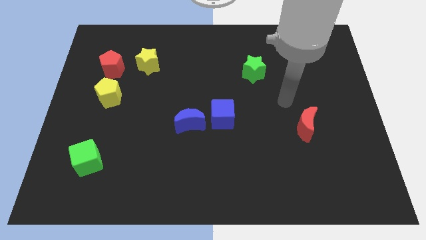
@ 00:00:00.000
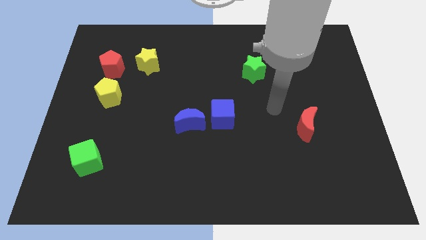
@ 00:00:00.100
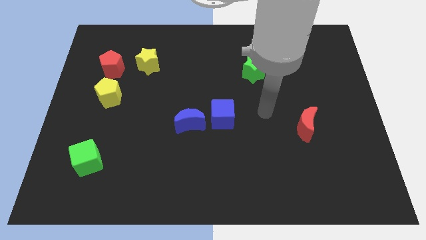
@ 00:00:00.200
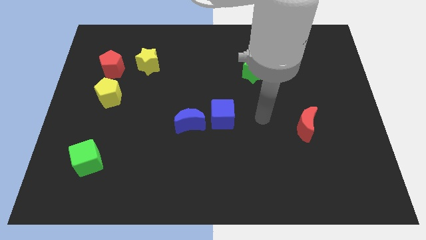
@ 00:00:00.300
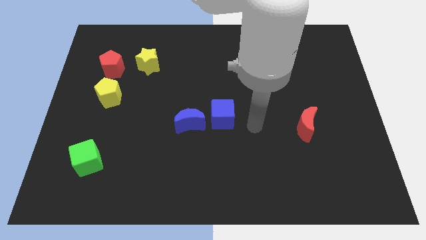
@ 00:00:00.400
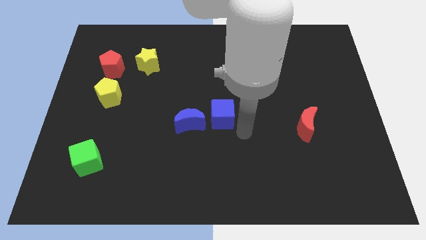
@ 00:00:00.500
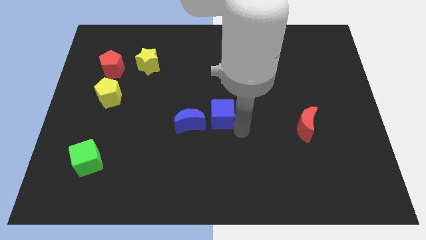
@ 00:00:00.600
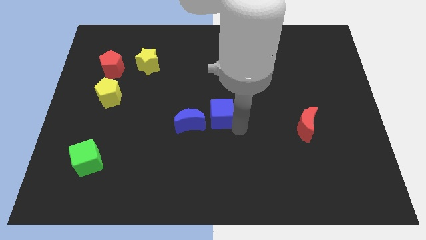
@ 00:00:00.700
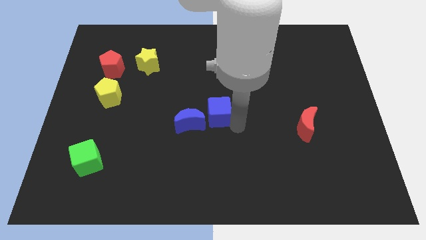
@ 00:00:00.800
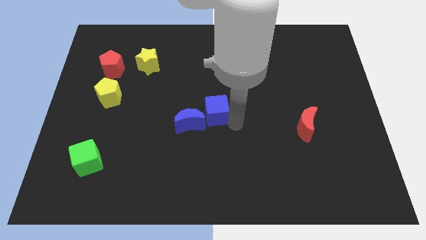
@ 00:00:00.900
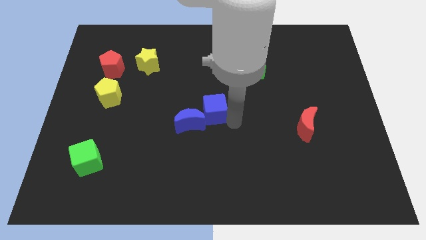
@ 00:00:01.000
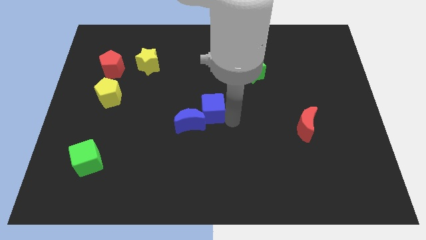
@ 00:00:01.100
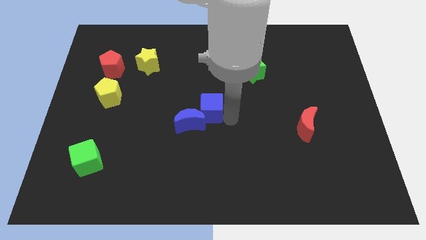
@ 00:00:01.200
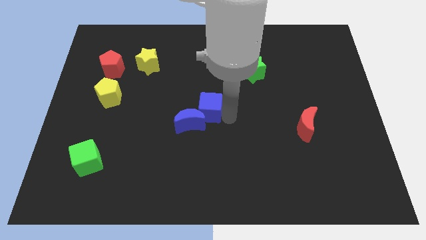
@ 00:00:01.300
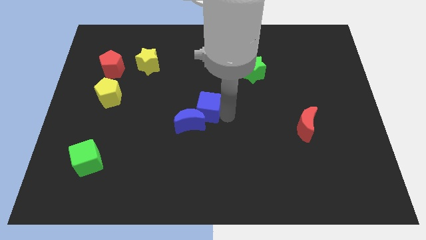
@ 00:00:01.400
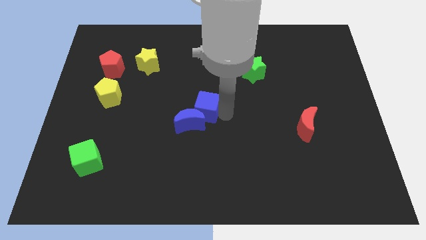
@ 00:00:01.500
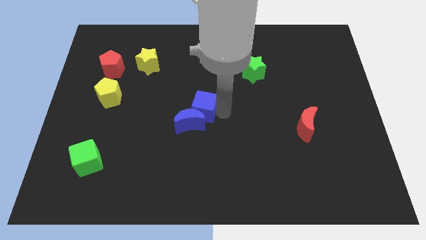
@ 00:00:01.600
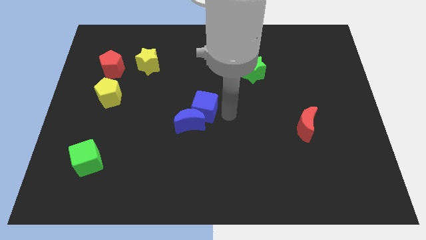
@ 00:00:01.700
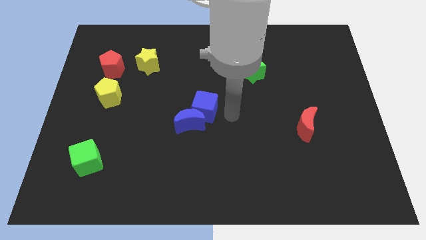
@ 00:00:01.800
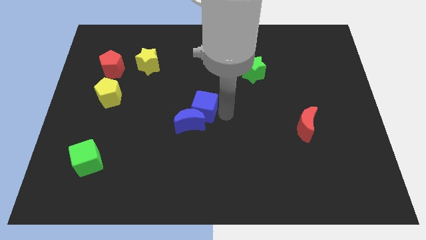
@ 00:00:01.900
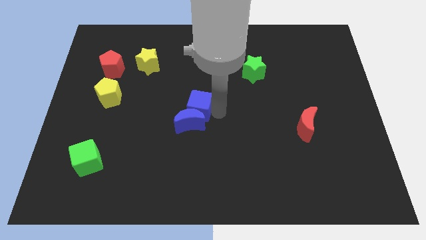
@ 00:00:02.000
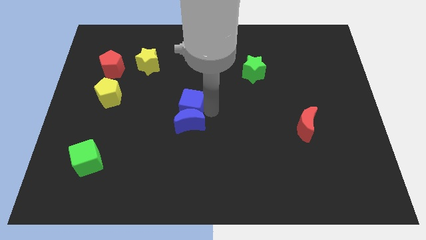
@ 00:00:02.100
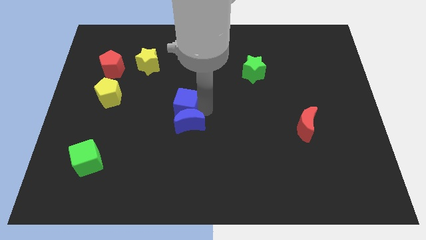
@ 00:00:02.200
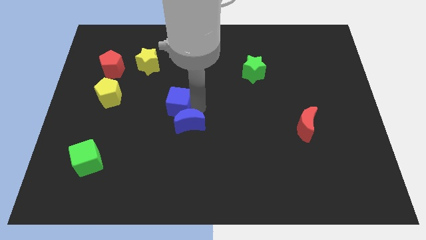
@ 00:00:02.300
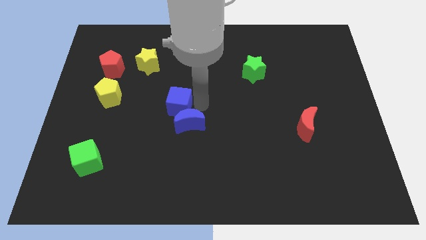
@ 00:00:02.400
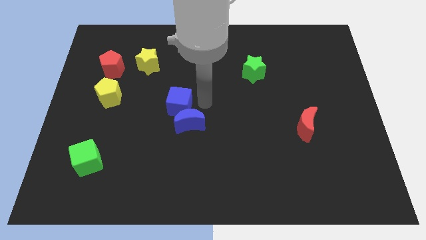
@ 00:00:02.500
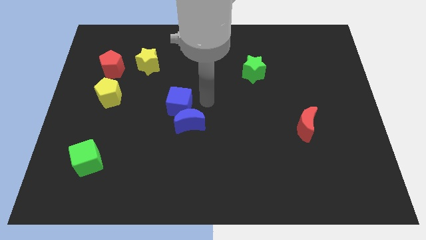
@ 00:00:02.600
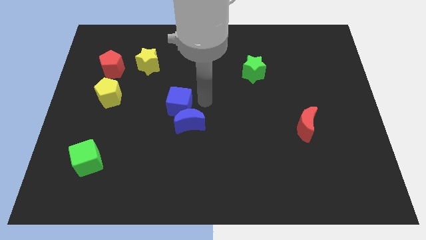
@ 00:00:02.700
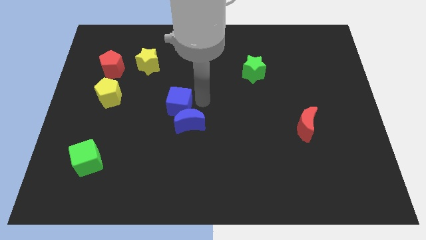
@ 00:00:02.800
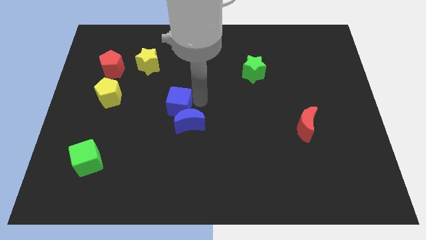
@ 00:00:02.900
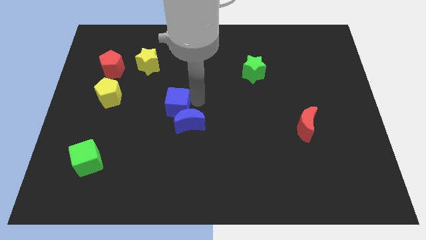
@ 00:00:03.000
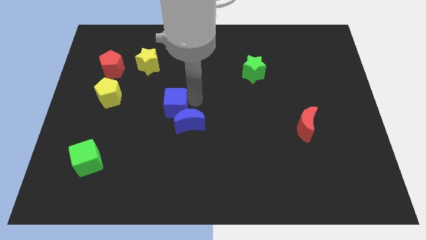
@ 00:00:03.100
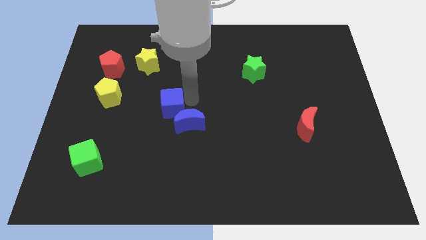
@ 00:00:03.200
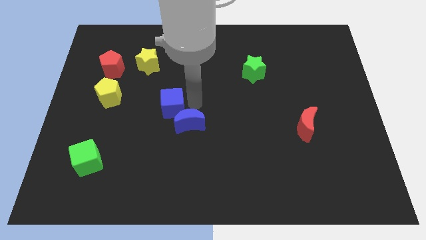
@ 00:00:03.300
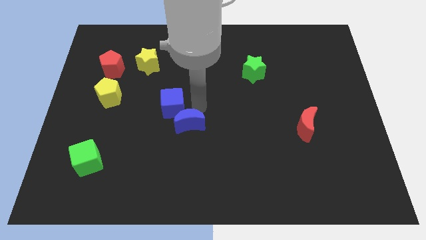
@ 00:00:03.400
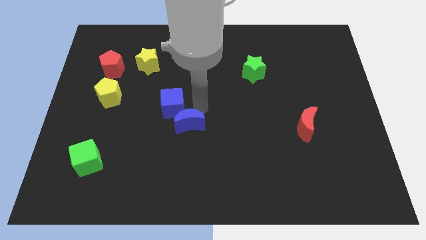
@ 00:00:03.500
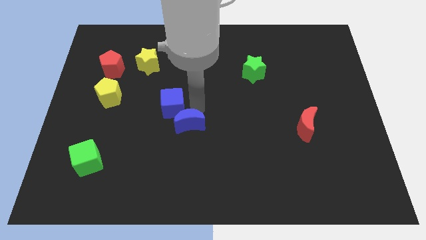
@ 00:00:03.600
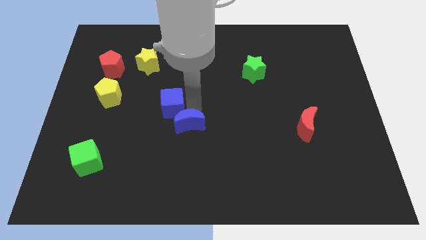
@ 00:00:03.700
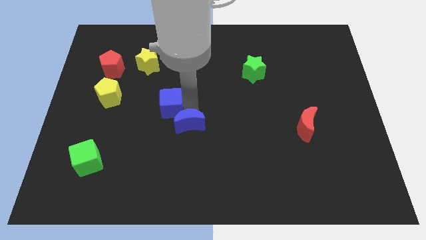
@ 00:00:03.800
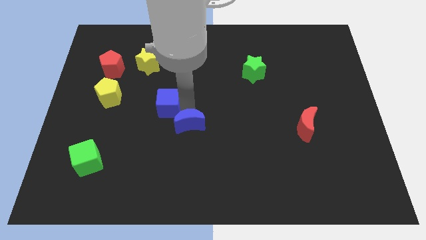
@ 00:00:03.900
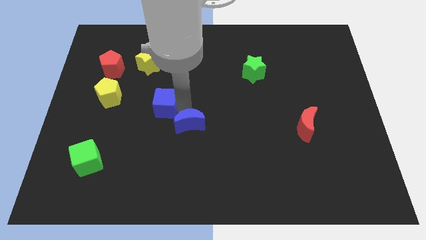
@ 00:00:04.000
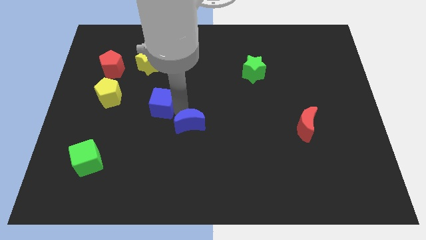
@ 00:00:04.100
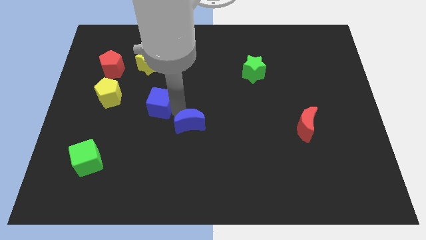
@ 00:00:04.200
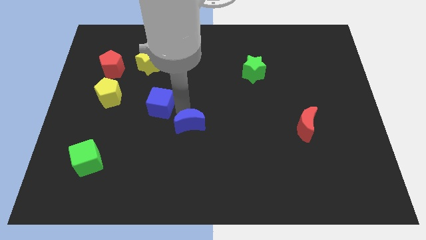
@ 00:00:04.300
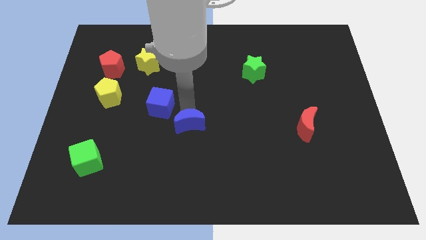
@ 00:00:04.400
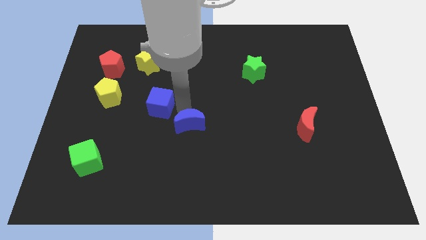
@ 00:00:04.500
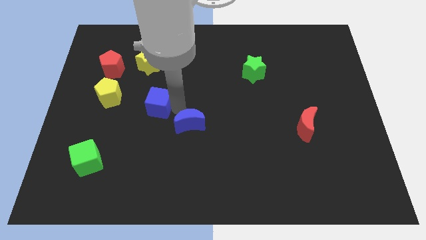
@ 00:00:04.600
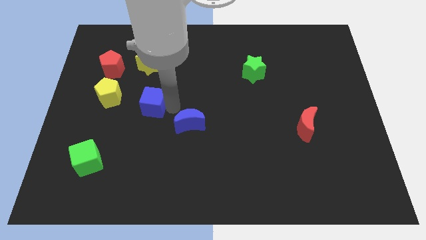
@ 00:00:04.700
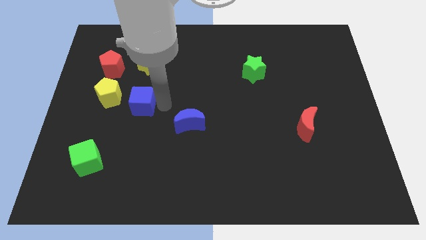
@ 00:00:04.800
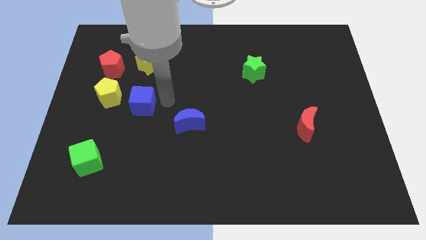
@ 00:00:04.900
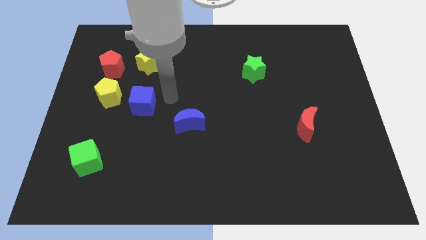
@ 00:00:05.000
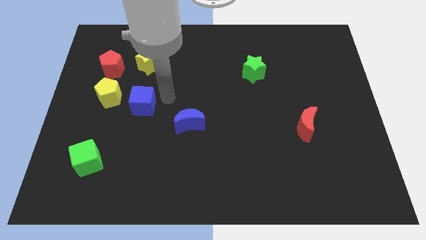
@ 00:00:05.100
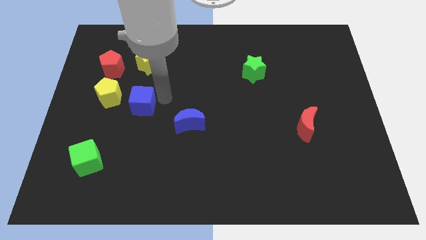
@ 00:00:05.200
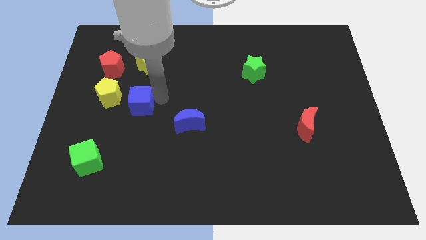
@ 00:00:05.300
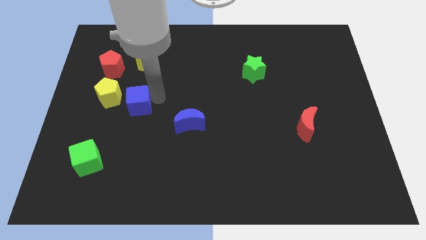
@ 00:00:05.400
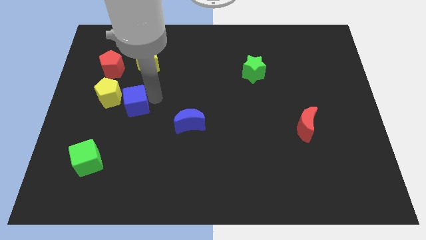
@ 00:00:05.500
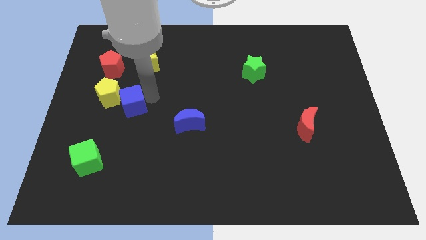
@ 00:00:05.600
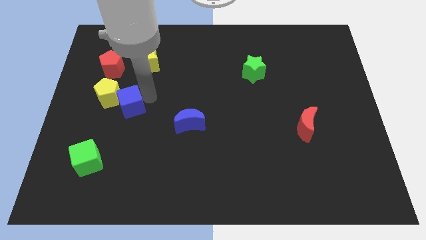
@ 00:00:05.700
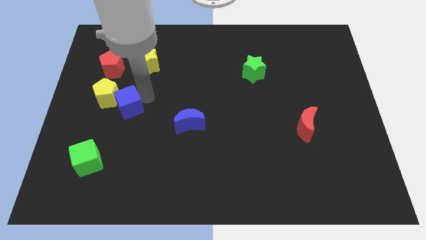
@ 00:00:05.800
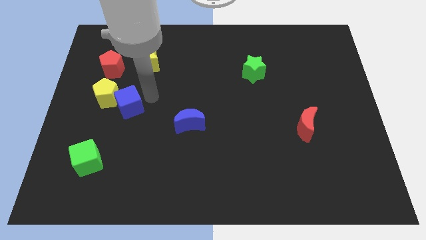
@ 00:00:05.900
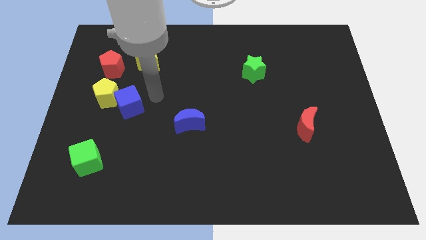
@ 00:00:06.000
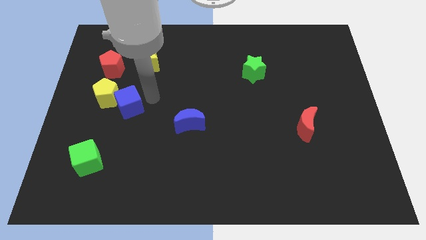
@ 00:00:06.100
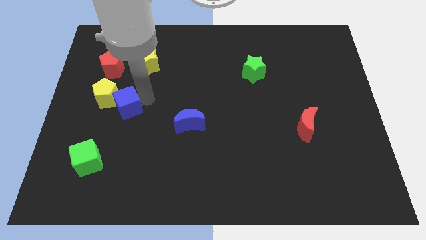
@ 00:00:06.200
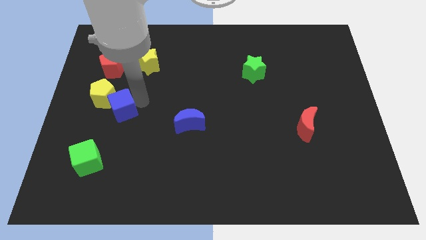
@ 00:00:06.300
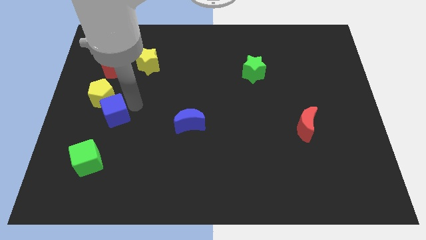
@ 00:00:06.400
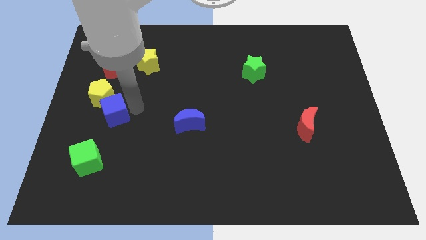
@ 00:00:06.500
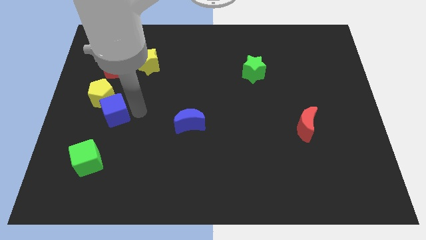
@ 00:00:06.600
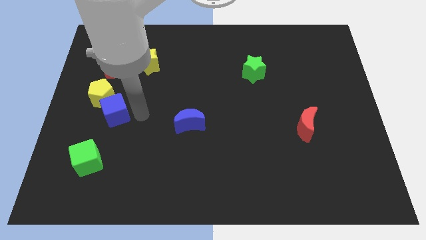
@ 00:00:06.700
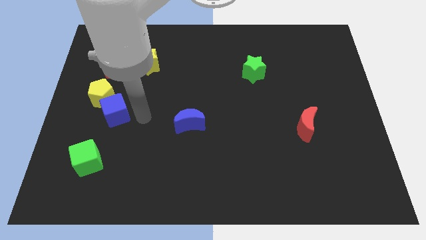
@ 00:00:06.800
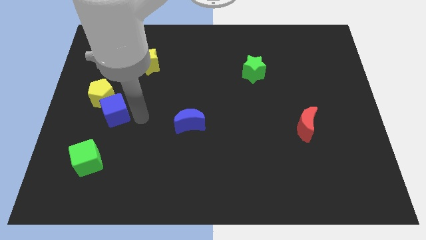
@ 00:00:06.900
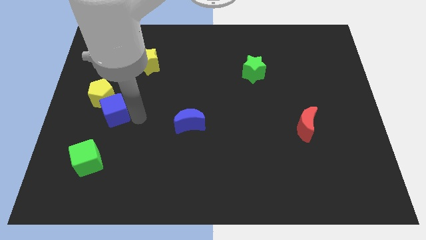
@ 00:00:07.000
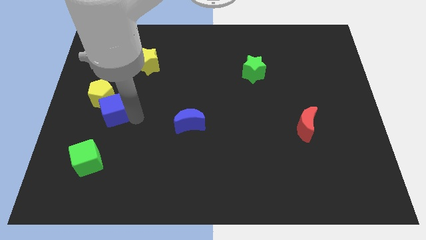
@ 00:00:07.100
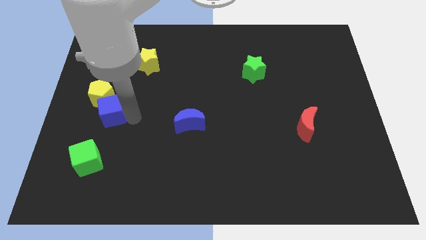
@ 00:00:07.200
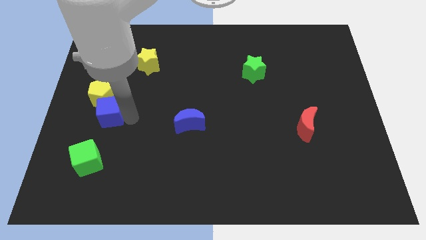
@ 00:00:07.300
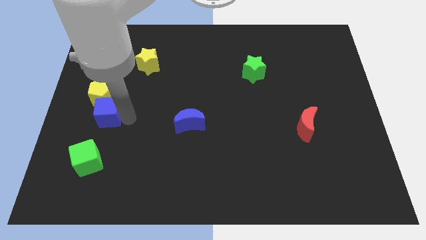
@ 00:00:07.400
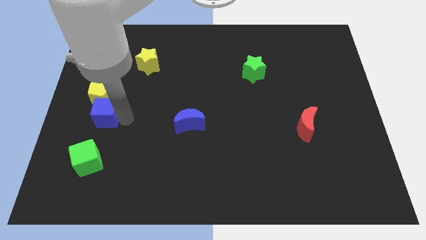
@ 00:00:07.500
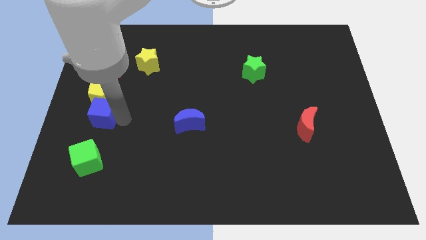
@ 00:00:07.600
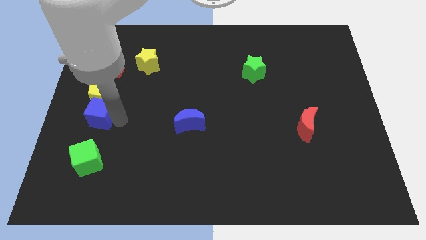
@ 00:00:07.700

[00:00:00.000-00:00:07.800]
put the blue cube to the left side
